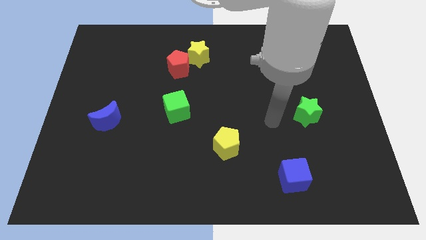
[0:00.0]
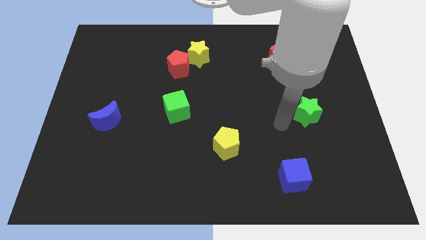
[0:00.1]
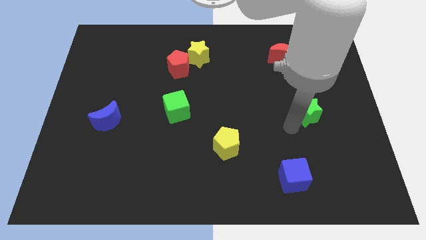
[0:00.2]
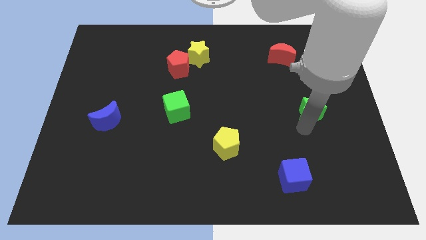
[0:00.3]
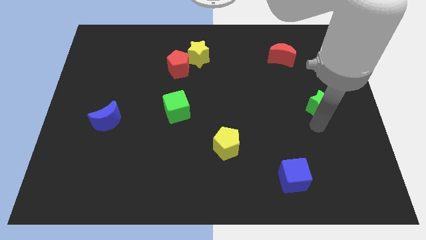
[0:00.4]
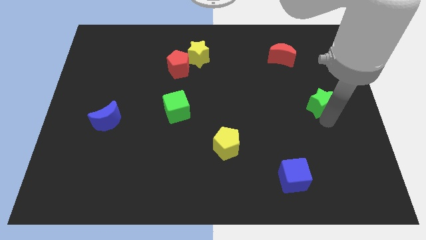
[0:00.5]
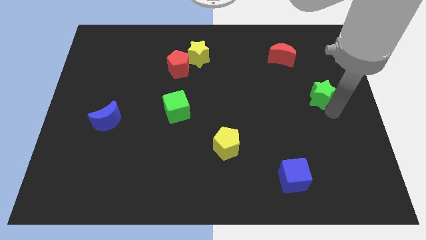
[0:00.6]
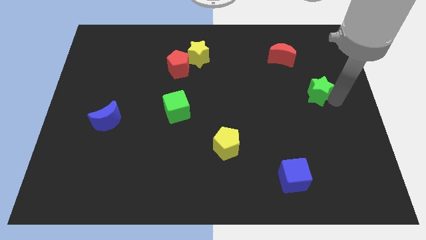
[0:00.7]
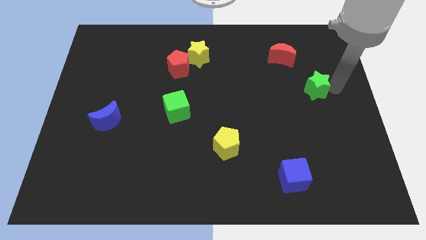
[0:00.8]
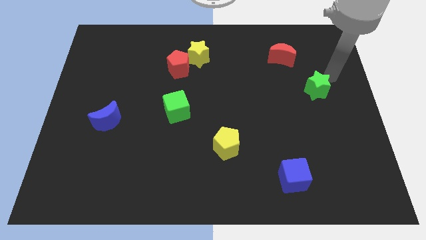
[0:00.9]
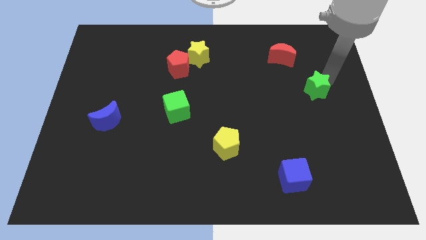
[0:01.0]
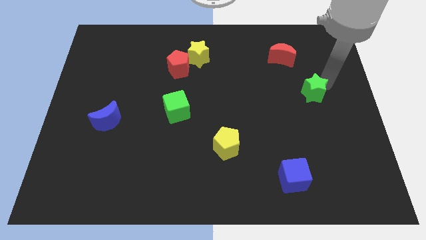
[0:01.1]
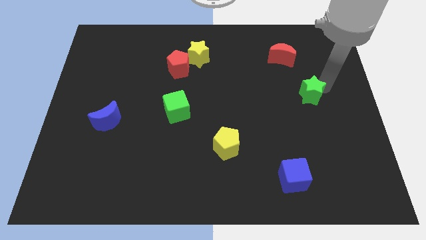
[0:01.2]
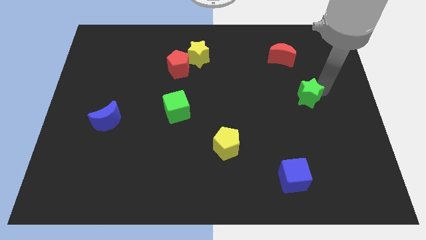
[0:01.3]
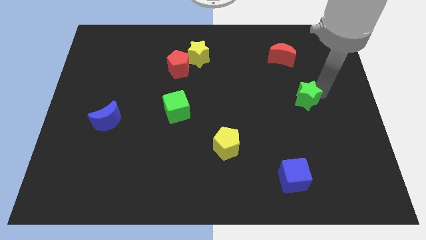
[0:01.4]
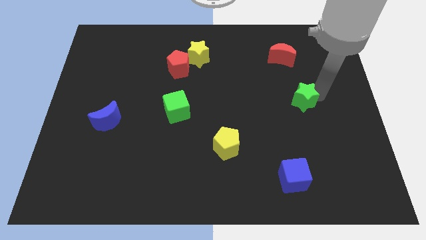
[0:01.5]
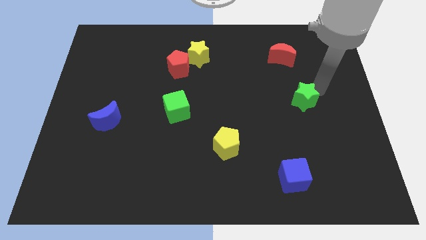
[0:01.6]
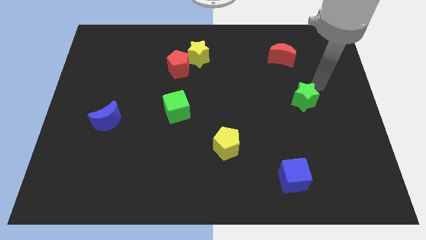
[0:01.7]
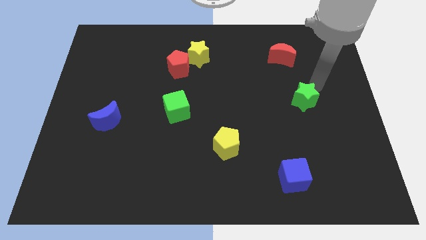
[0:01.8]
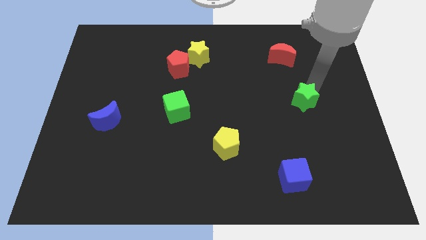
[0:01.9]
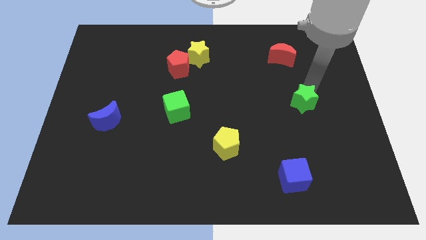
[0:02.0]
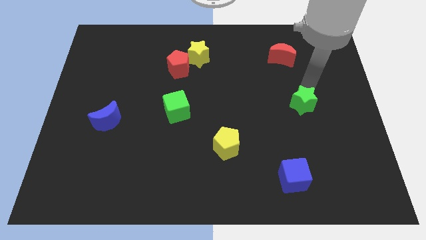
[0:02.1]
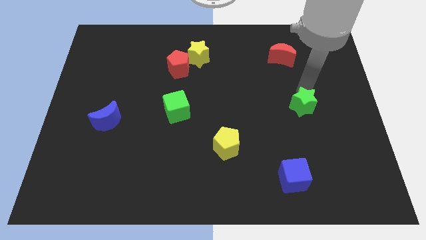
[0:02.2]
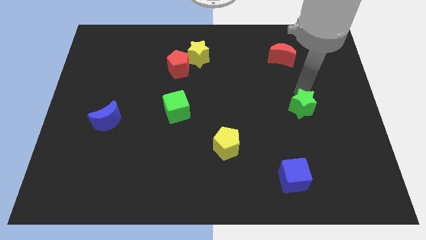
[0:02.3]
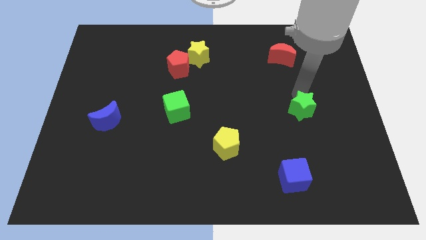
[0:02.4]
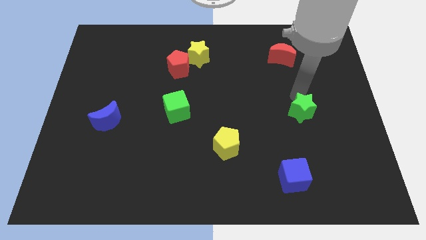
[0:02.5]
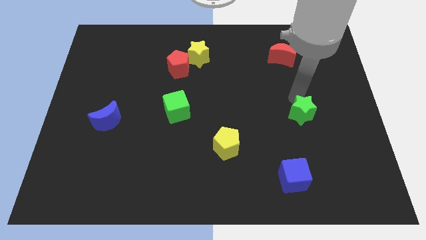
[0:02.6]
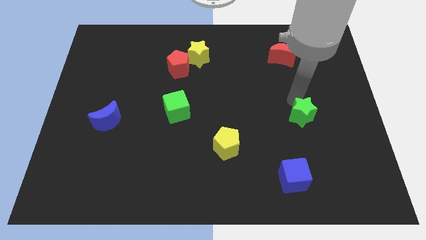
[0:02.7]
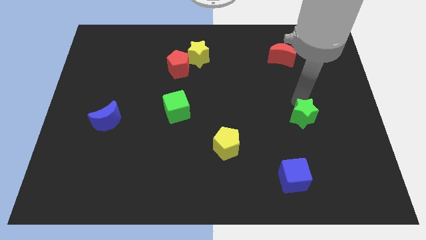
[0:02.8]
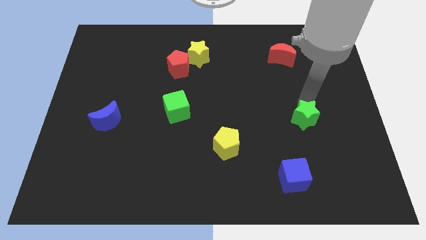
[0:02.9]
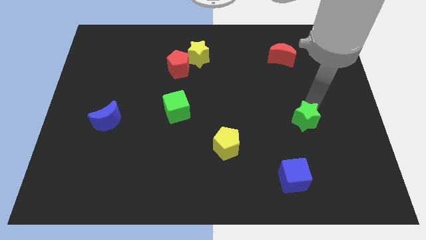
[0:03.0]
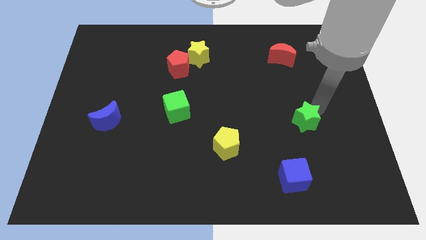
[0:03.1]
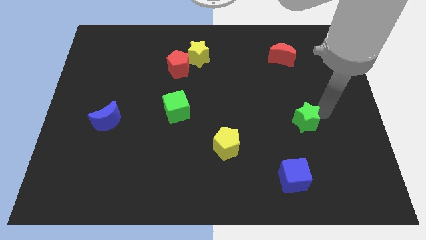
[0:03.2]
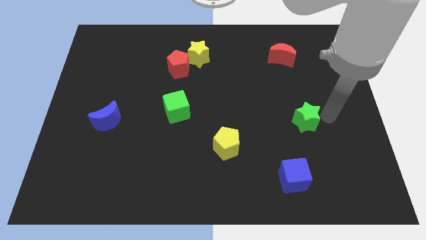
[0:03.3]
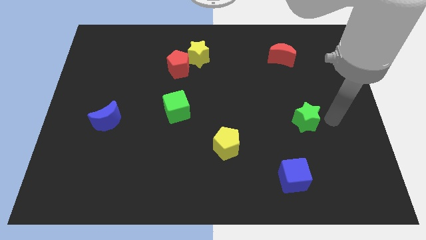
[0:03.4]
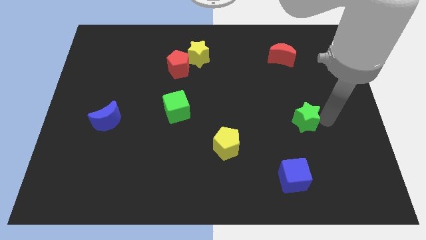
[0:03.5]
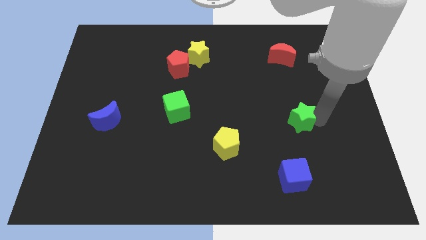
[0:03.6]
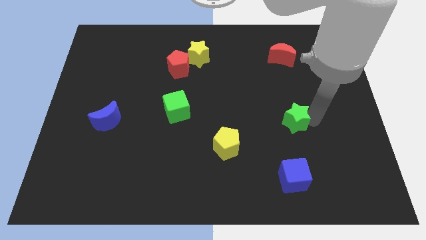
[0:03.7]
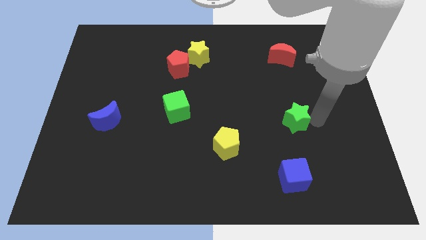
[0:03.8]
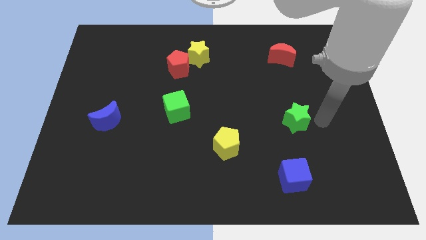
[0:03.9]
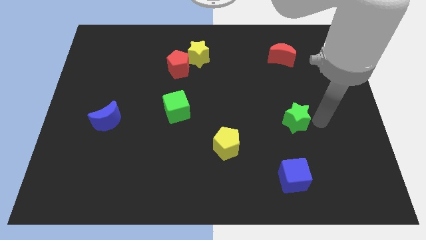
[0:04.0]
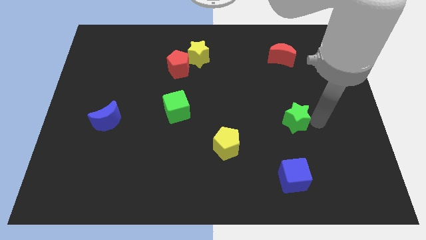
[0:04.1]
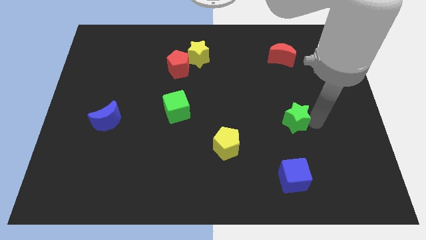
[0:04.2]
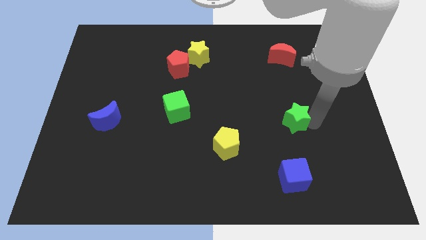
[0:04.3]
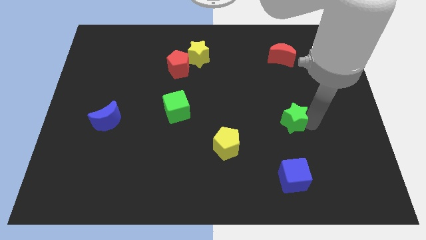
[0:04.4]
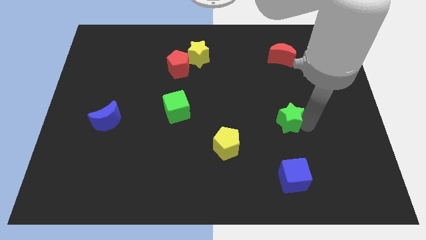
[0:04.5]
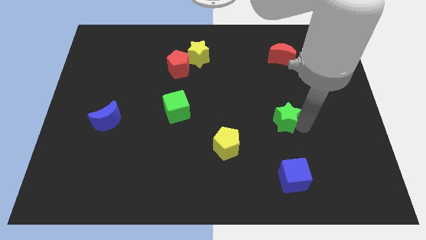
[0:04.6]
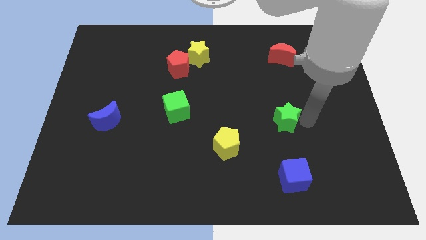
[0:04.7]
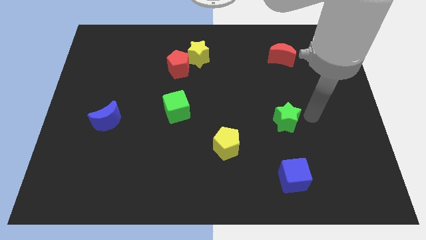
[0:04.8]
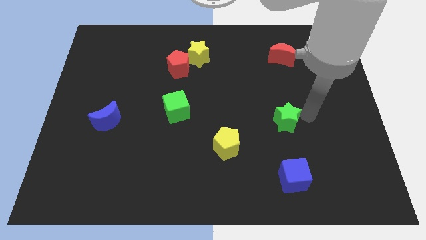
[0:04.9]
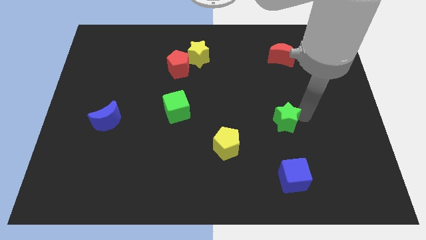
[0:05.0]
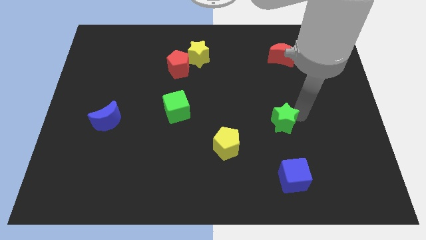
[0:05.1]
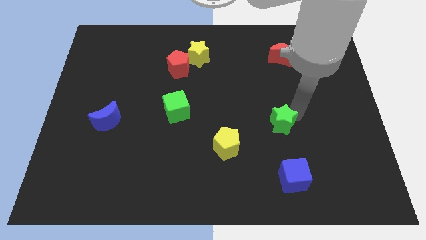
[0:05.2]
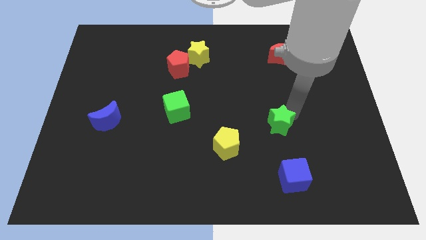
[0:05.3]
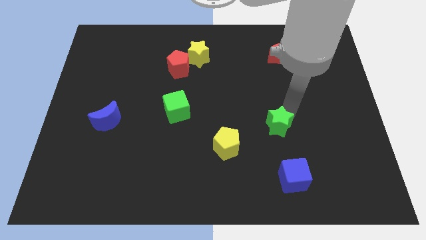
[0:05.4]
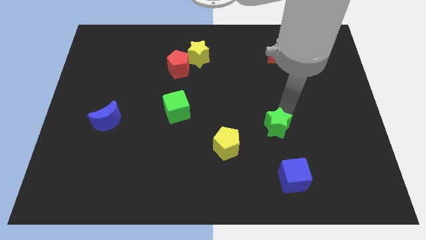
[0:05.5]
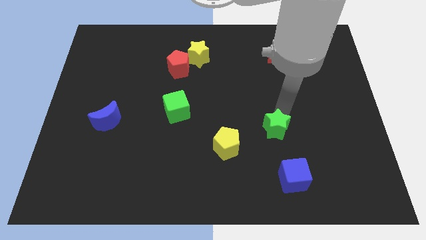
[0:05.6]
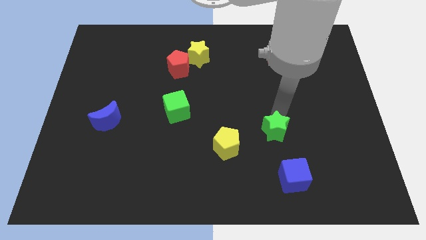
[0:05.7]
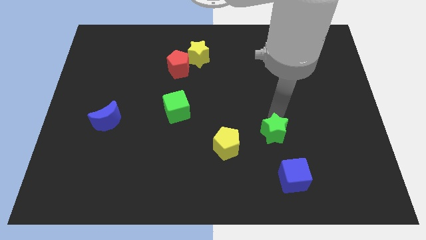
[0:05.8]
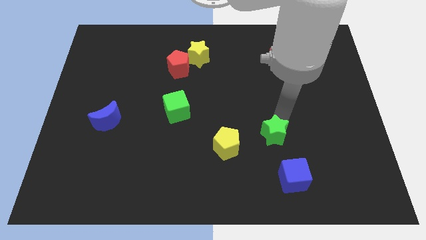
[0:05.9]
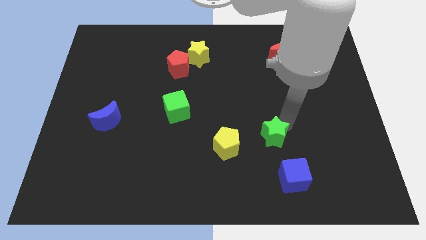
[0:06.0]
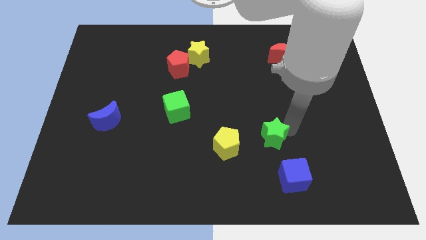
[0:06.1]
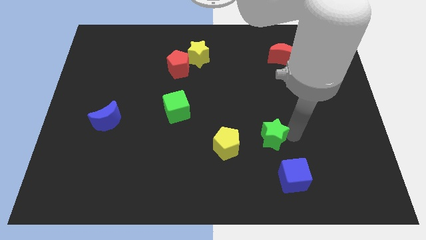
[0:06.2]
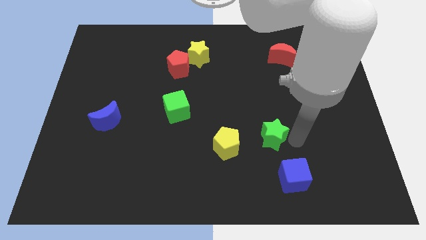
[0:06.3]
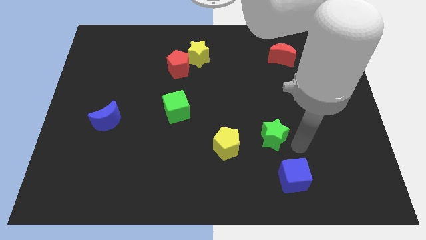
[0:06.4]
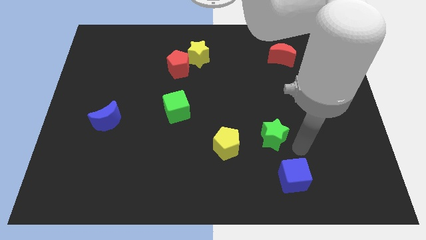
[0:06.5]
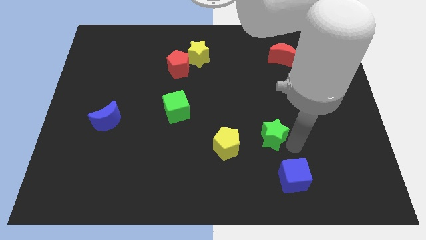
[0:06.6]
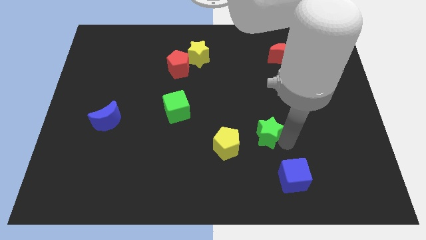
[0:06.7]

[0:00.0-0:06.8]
move the green star diagonally up and to the right of the yellow pentagon
